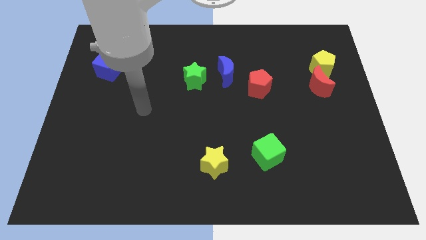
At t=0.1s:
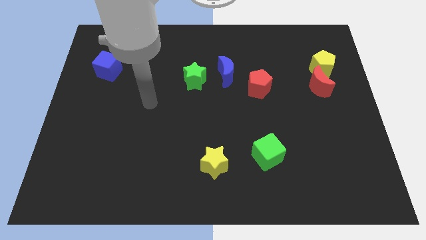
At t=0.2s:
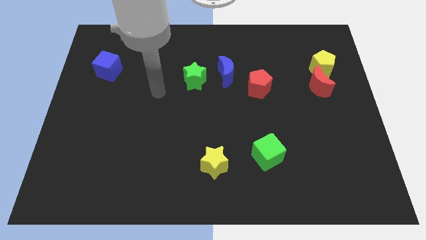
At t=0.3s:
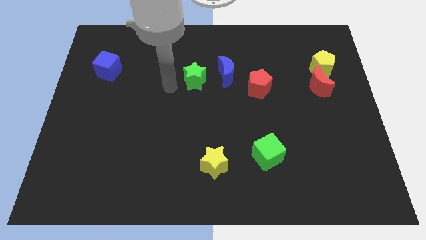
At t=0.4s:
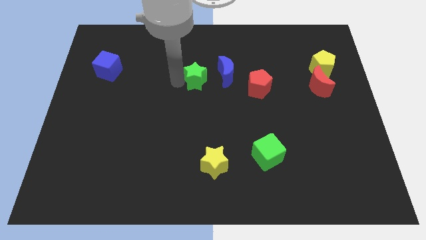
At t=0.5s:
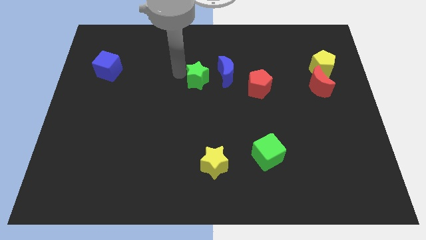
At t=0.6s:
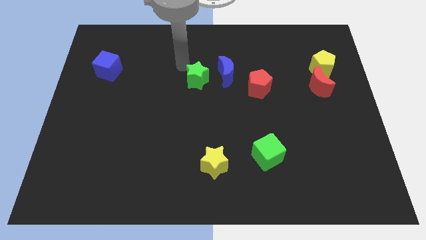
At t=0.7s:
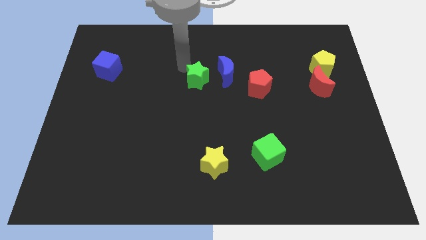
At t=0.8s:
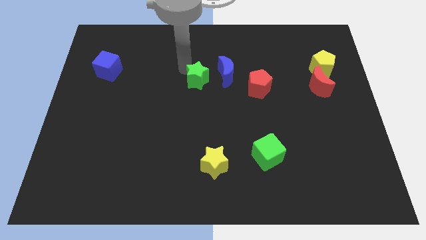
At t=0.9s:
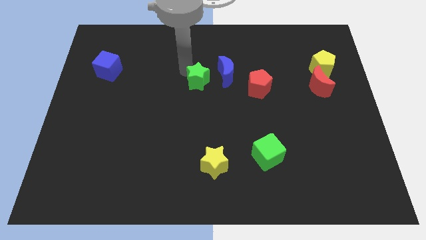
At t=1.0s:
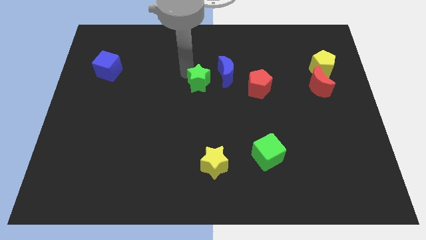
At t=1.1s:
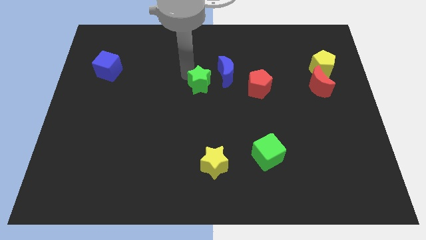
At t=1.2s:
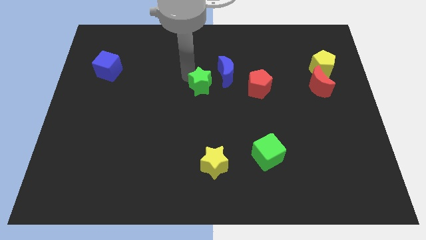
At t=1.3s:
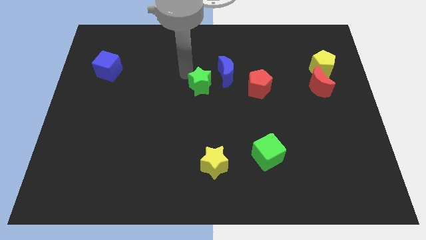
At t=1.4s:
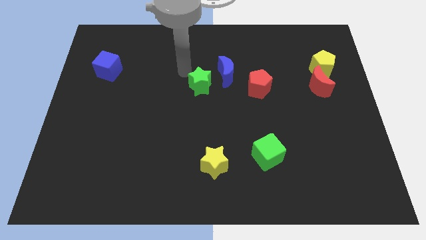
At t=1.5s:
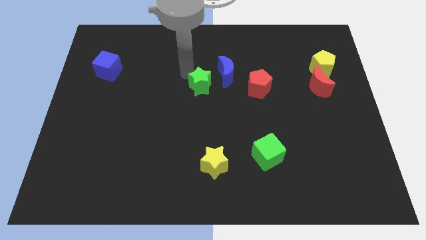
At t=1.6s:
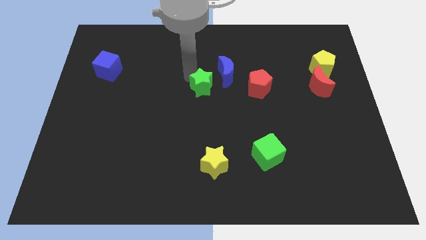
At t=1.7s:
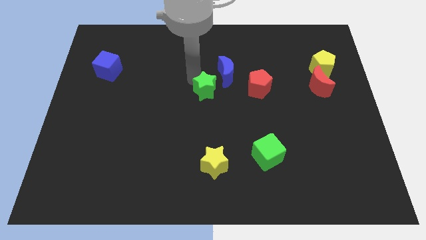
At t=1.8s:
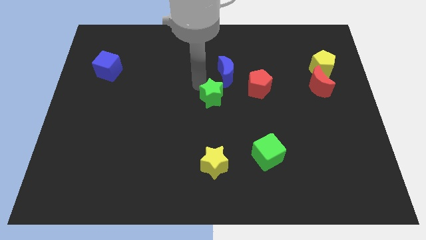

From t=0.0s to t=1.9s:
slide the green star a bit downwards and to the right diagonally

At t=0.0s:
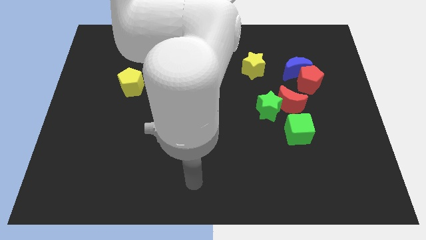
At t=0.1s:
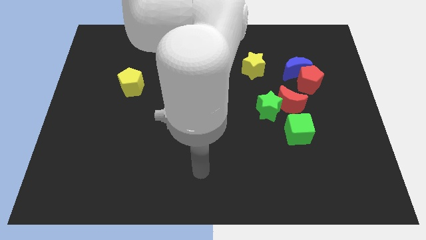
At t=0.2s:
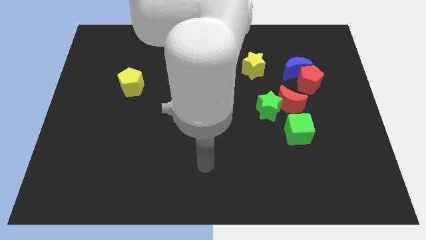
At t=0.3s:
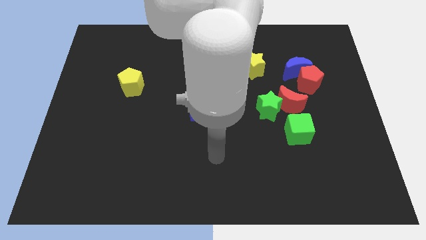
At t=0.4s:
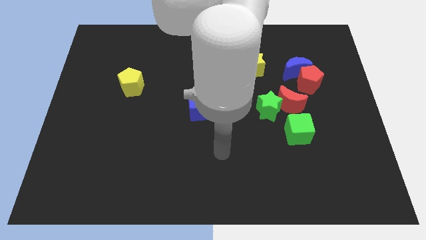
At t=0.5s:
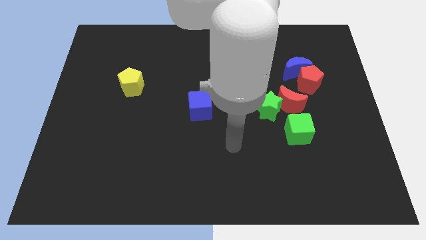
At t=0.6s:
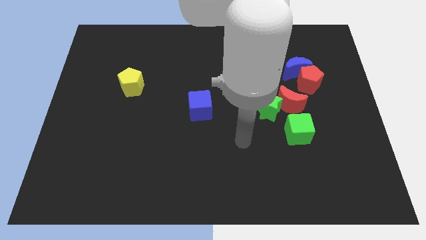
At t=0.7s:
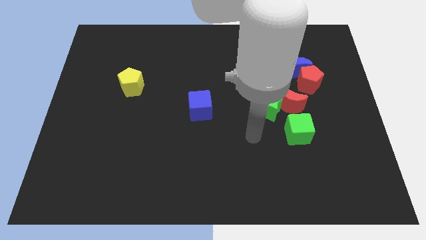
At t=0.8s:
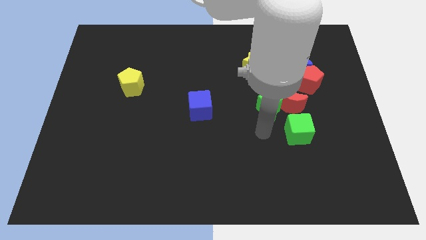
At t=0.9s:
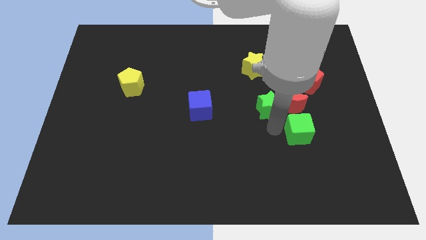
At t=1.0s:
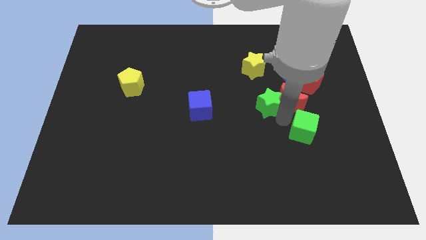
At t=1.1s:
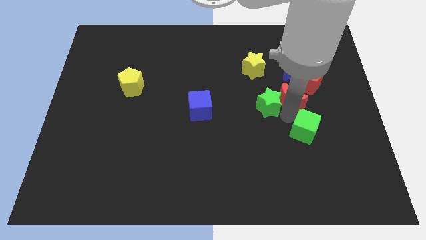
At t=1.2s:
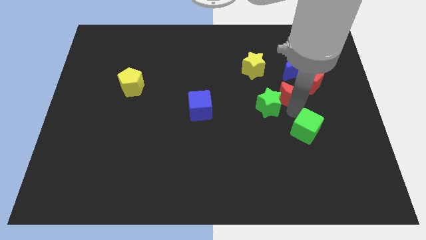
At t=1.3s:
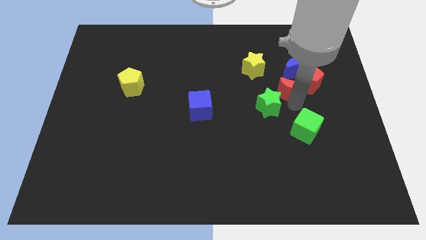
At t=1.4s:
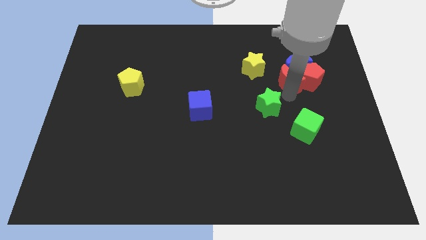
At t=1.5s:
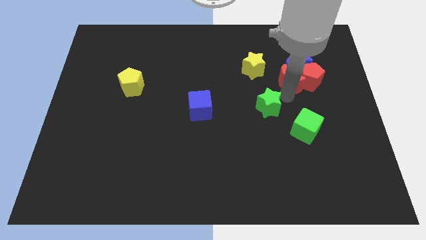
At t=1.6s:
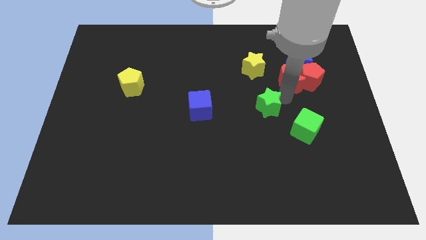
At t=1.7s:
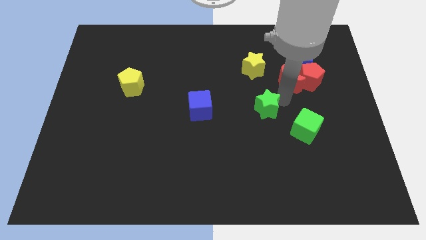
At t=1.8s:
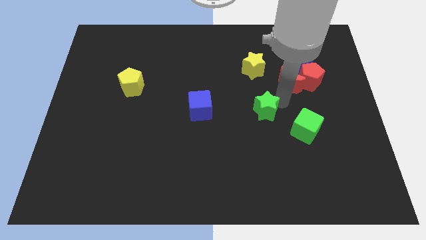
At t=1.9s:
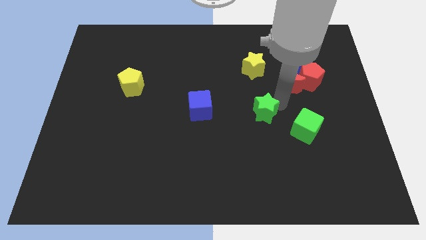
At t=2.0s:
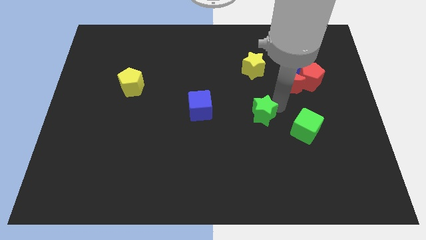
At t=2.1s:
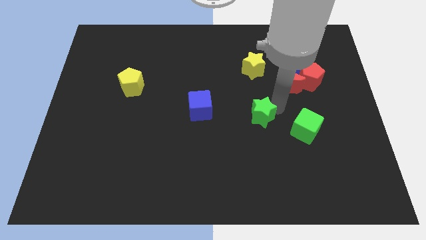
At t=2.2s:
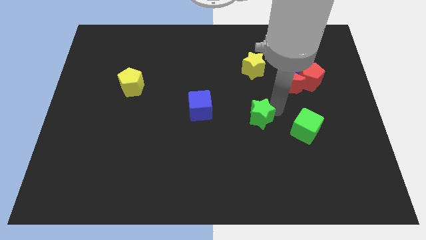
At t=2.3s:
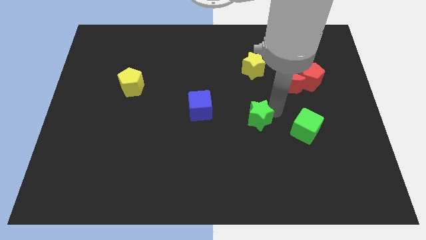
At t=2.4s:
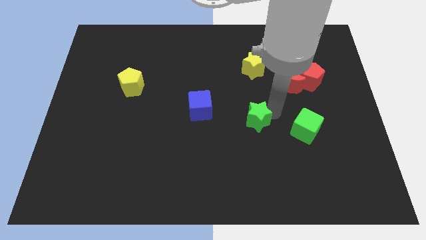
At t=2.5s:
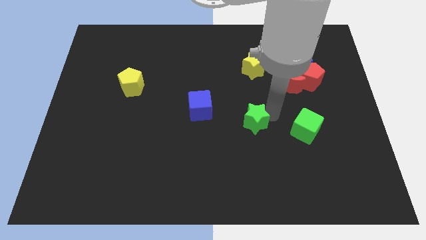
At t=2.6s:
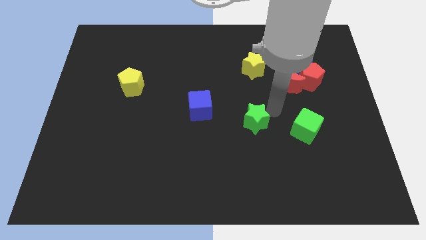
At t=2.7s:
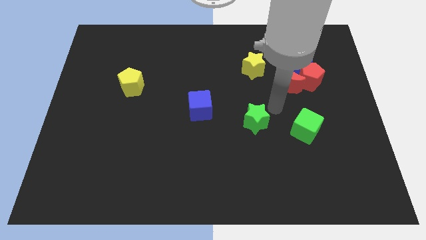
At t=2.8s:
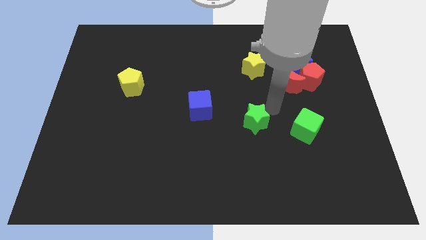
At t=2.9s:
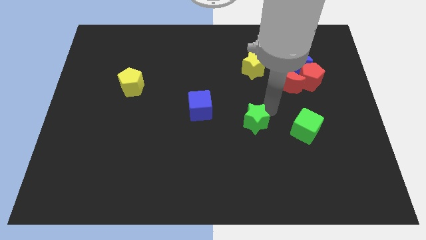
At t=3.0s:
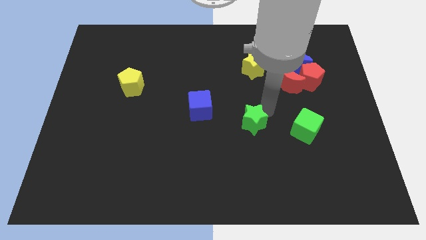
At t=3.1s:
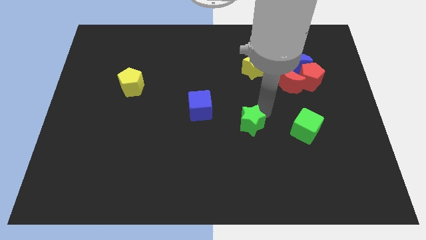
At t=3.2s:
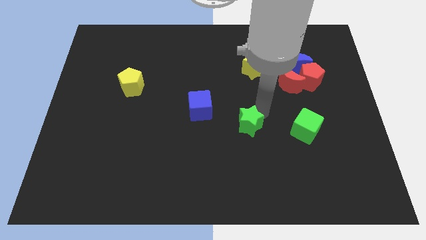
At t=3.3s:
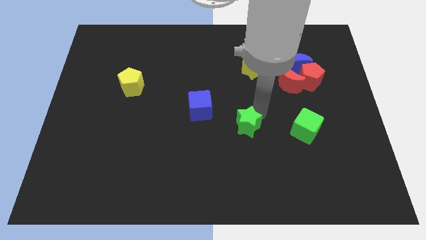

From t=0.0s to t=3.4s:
move the green star diagonally downwards and to the left a little bit

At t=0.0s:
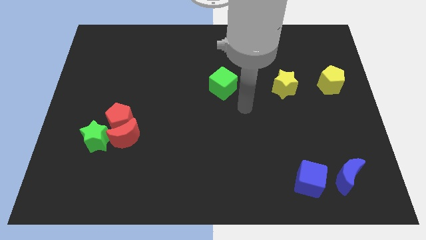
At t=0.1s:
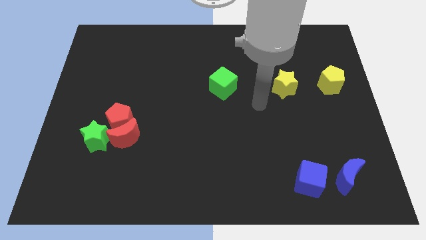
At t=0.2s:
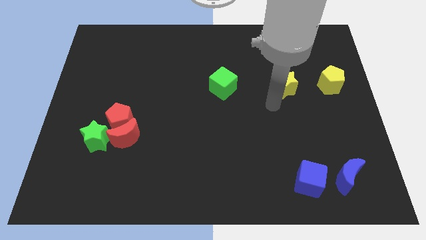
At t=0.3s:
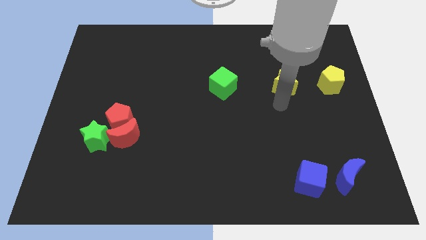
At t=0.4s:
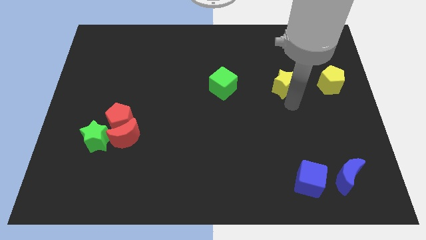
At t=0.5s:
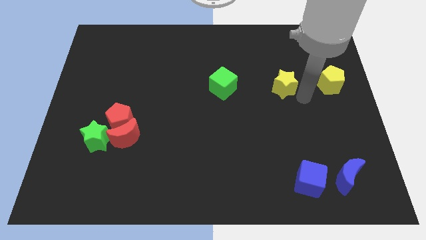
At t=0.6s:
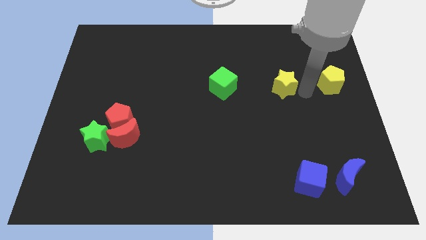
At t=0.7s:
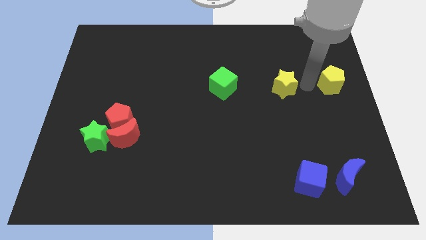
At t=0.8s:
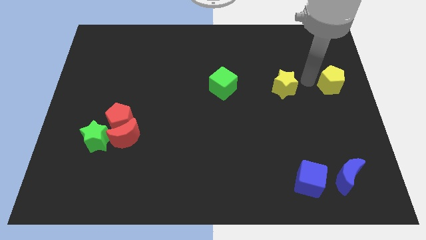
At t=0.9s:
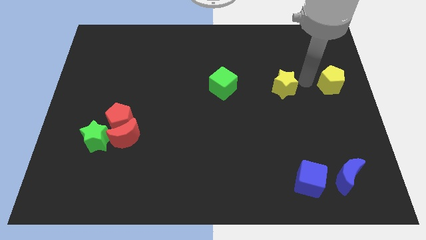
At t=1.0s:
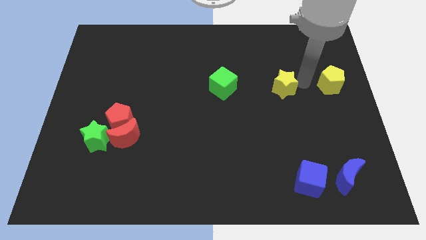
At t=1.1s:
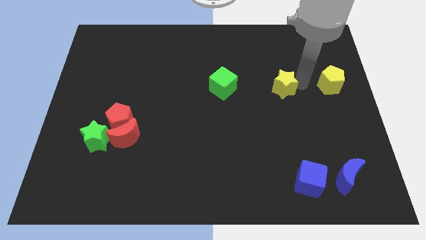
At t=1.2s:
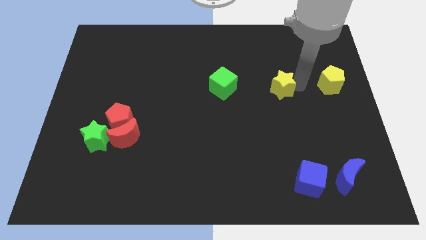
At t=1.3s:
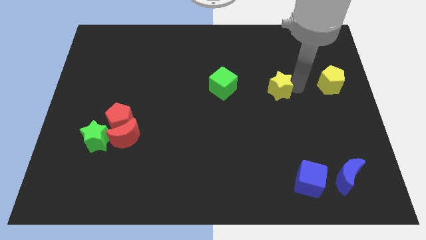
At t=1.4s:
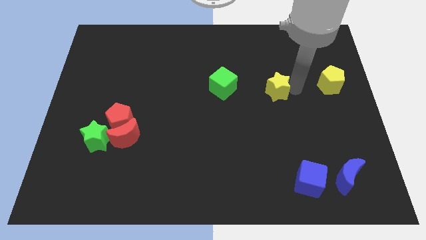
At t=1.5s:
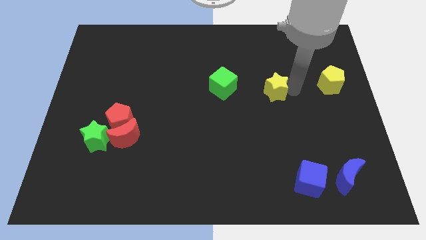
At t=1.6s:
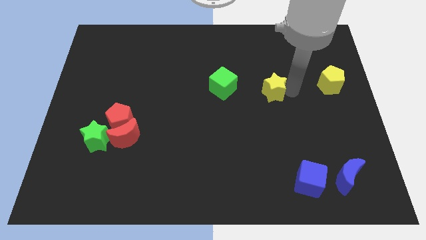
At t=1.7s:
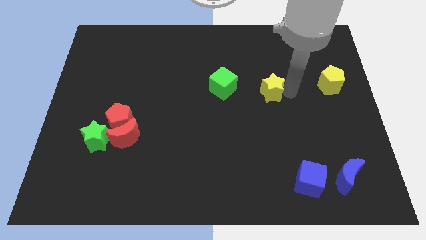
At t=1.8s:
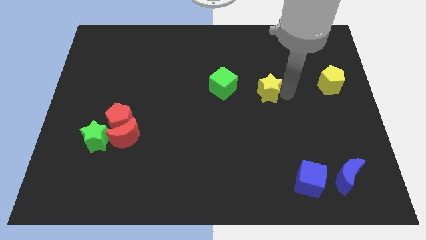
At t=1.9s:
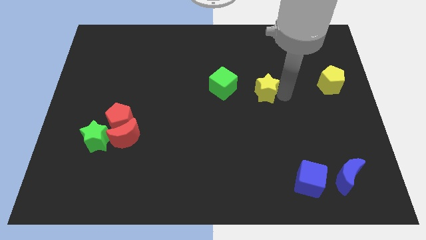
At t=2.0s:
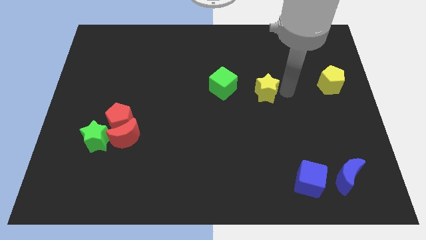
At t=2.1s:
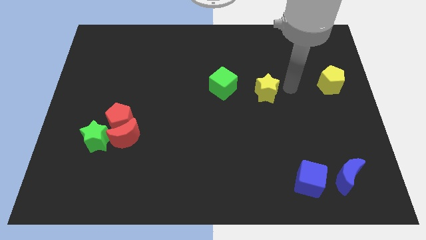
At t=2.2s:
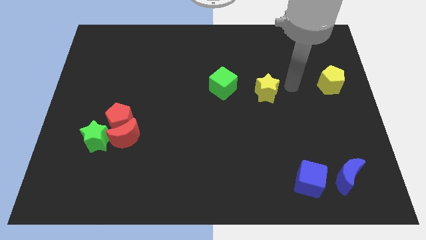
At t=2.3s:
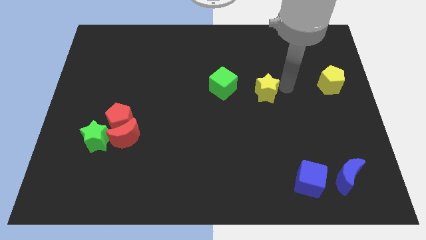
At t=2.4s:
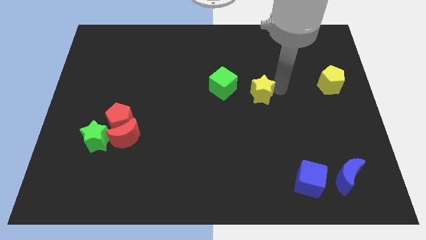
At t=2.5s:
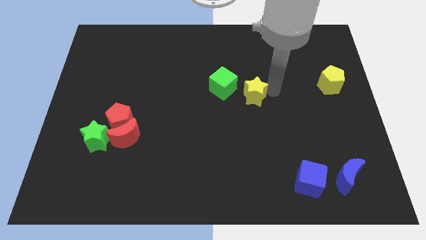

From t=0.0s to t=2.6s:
push the yellow star left slightly

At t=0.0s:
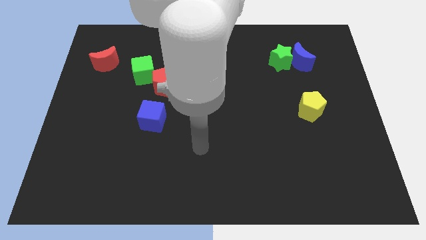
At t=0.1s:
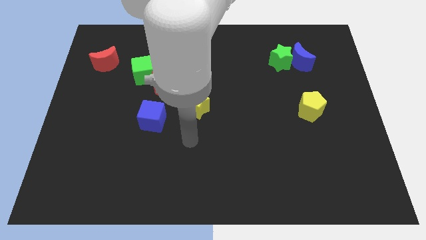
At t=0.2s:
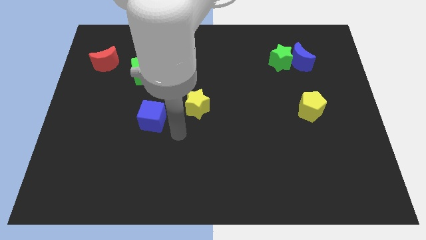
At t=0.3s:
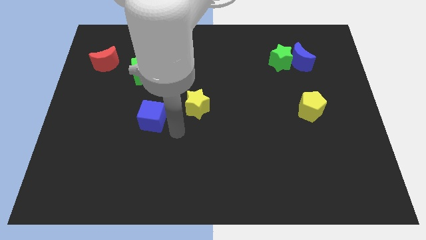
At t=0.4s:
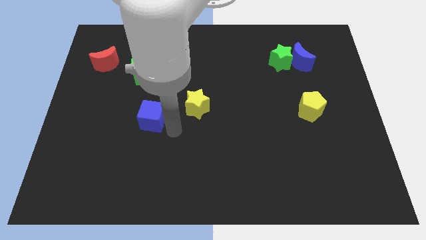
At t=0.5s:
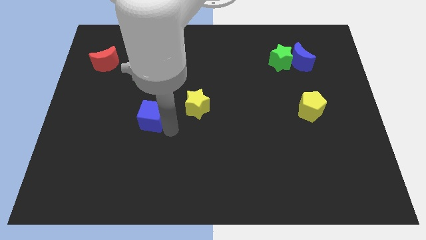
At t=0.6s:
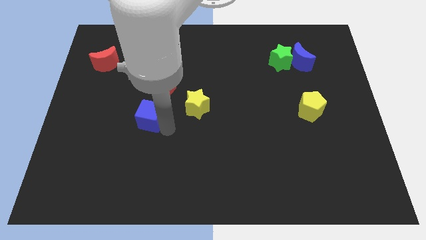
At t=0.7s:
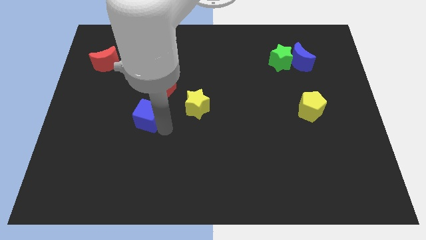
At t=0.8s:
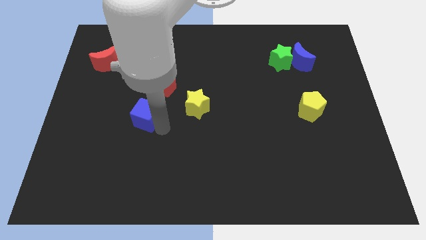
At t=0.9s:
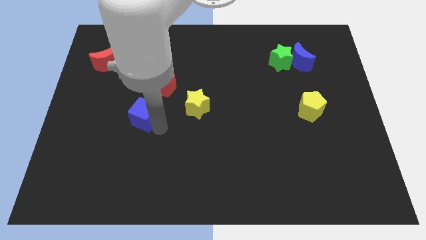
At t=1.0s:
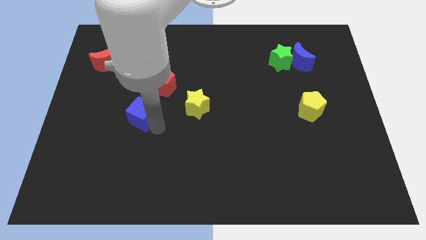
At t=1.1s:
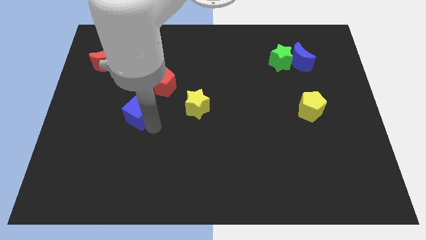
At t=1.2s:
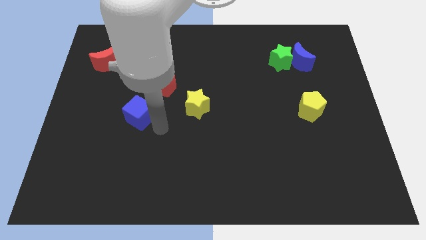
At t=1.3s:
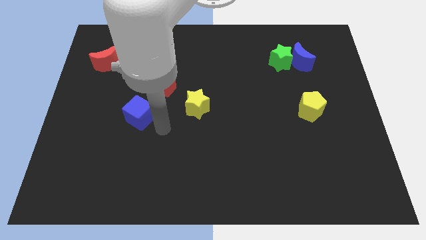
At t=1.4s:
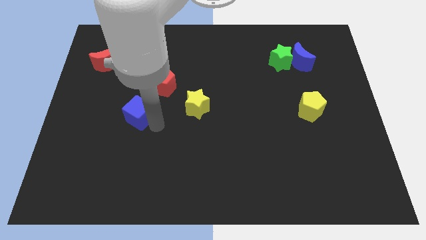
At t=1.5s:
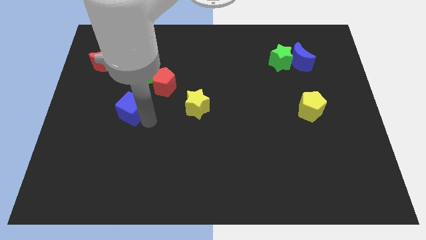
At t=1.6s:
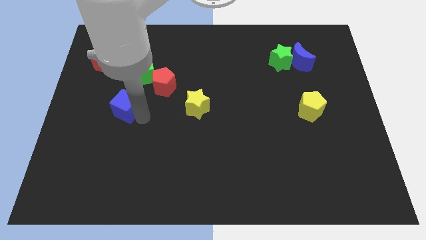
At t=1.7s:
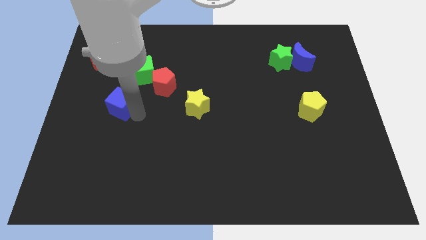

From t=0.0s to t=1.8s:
slightly move the blue cube upwards and left diagonally
